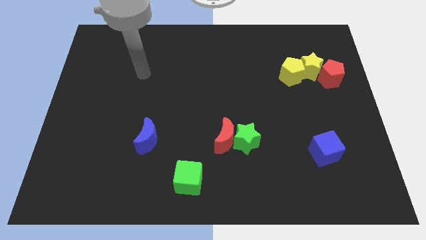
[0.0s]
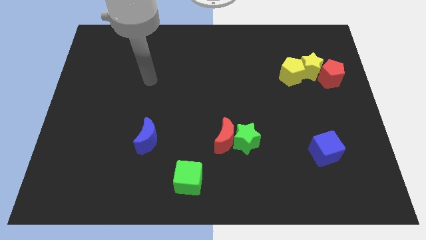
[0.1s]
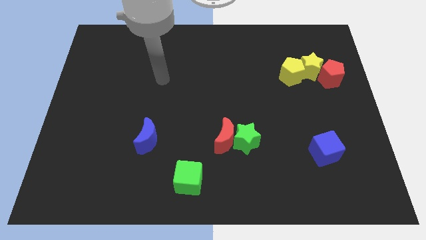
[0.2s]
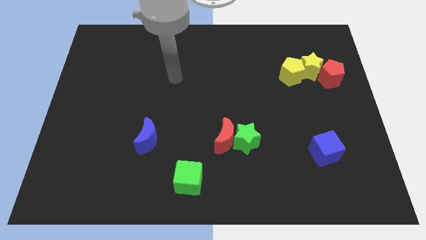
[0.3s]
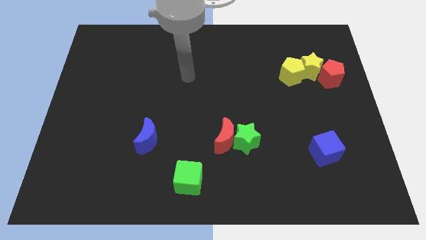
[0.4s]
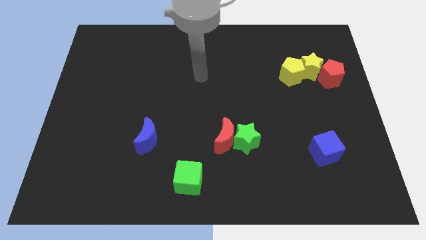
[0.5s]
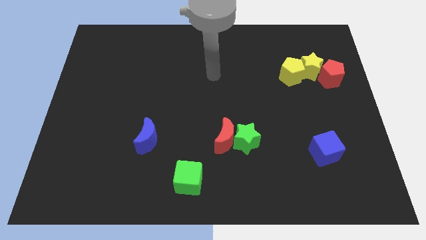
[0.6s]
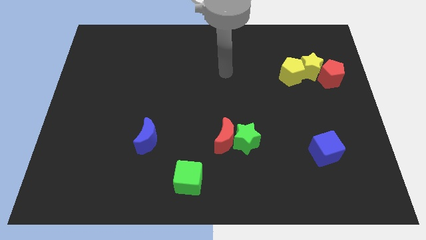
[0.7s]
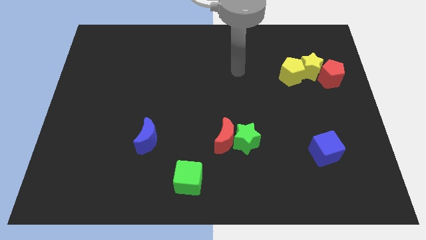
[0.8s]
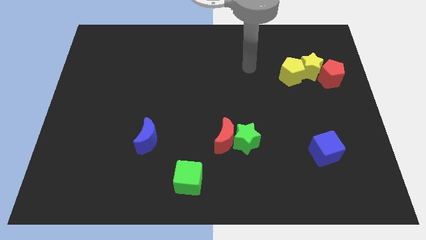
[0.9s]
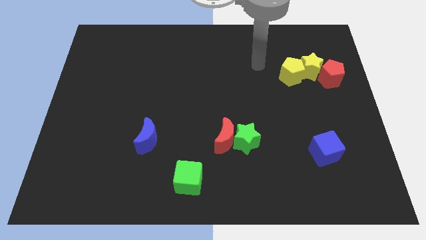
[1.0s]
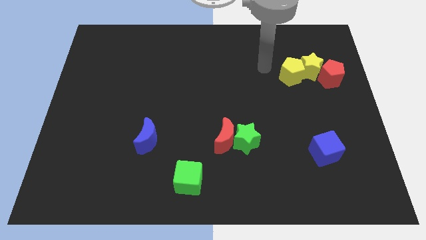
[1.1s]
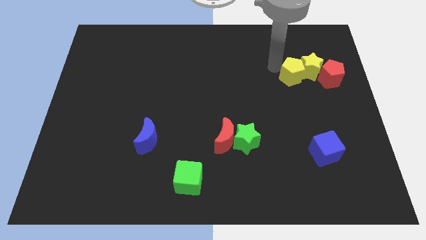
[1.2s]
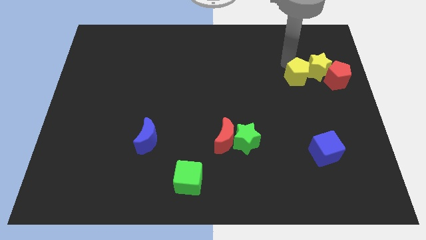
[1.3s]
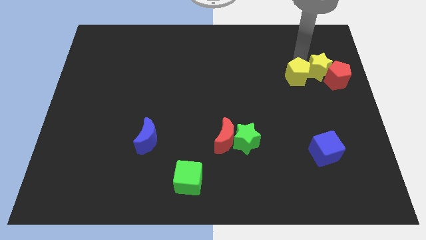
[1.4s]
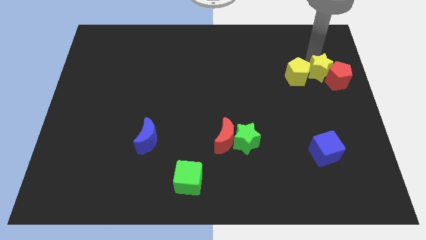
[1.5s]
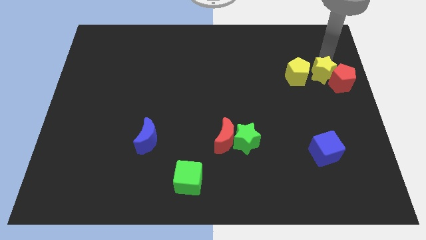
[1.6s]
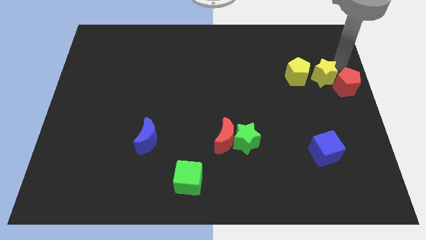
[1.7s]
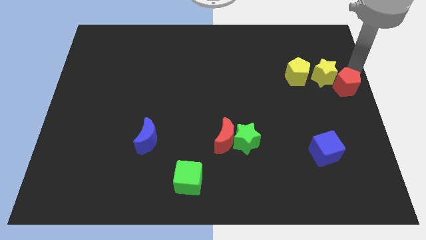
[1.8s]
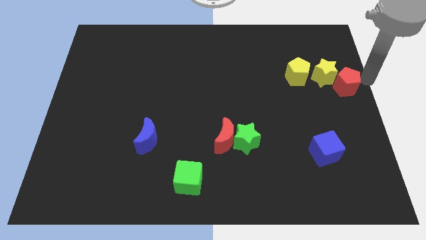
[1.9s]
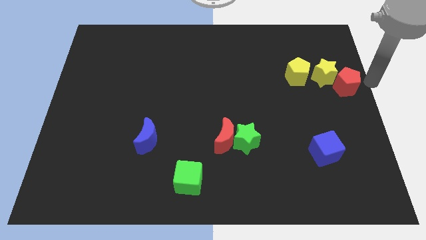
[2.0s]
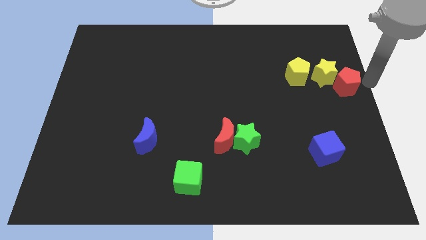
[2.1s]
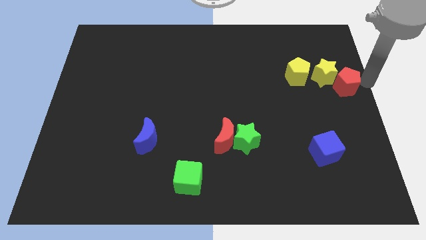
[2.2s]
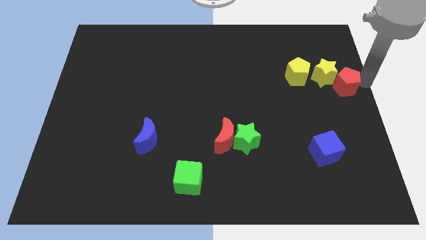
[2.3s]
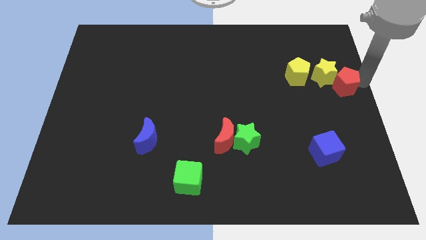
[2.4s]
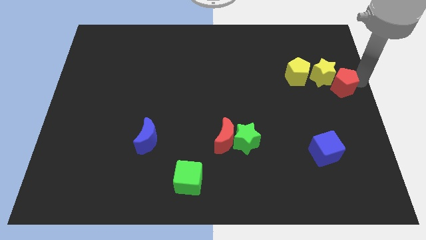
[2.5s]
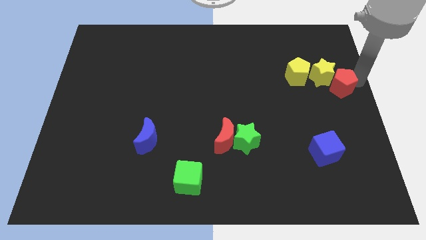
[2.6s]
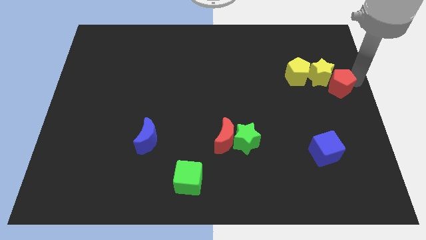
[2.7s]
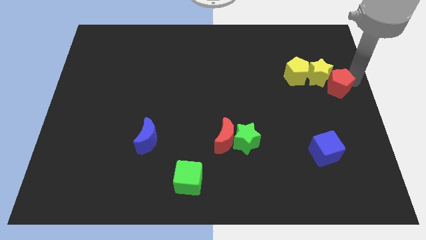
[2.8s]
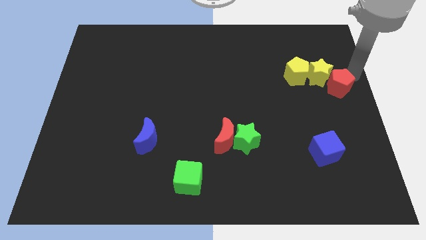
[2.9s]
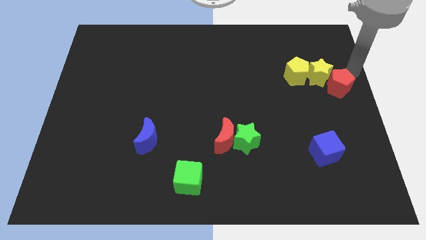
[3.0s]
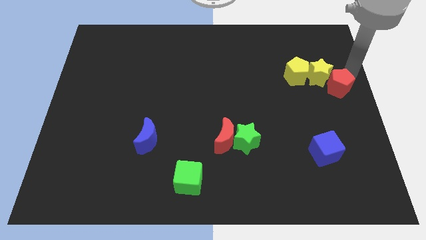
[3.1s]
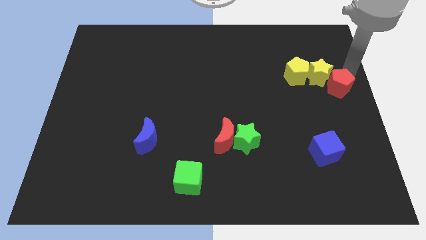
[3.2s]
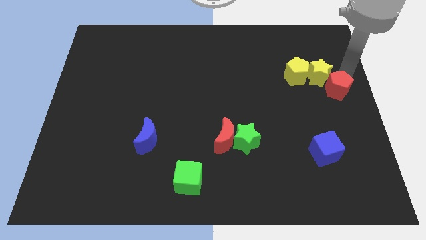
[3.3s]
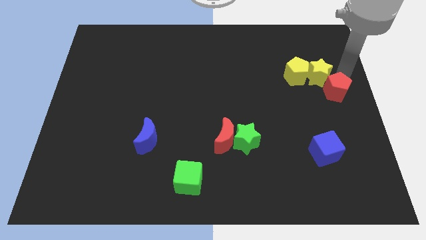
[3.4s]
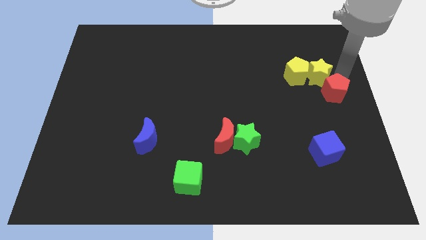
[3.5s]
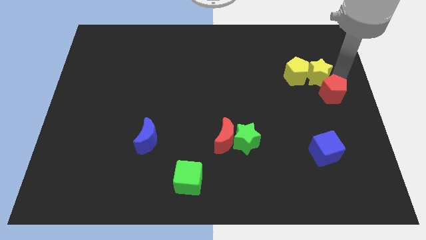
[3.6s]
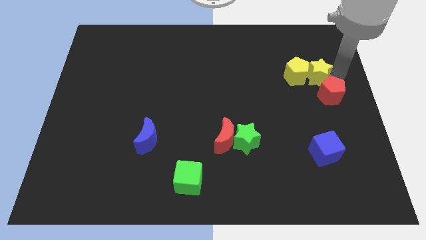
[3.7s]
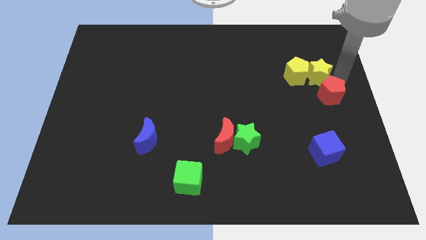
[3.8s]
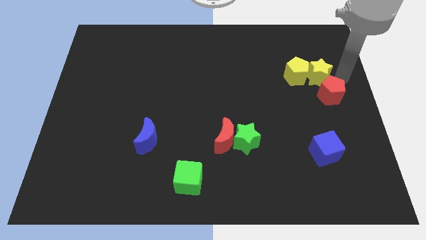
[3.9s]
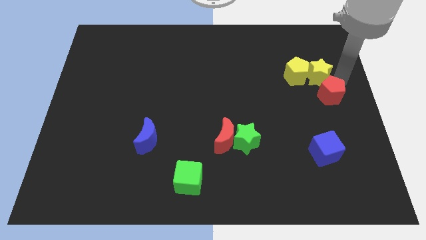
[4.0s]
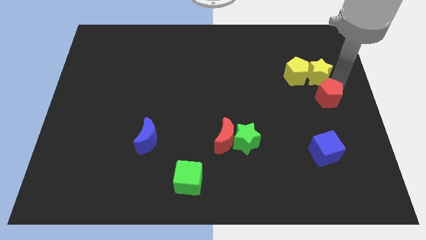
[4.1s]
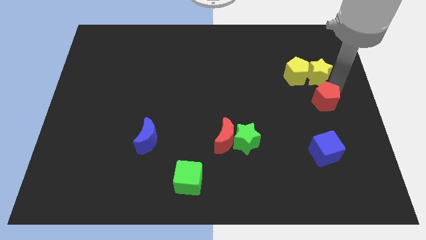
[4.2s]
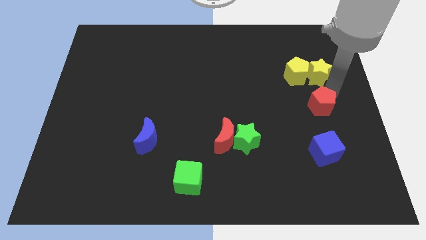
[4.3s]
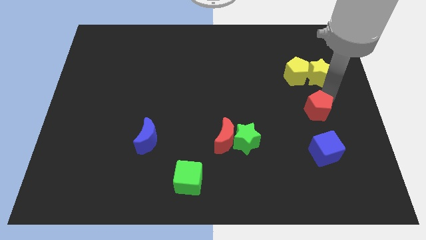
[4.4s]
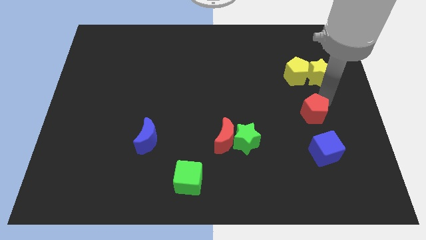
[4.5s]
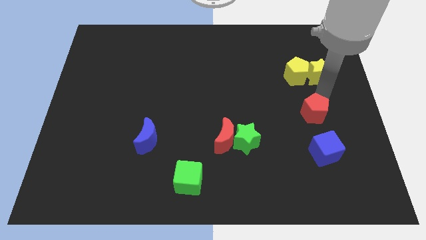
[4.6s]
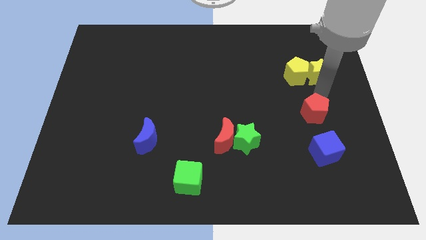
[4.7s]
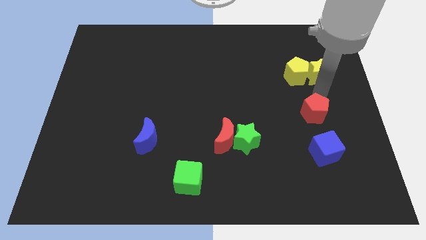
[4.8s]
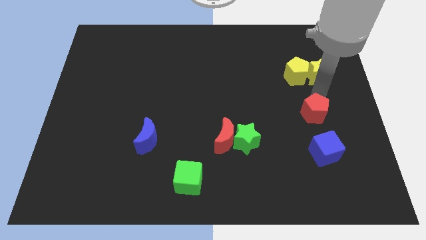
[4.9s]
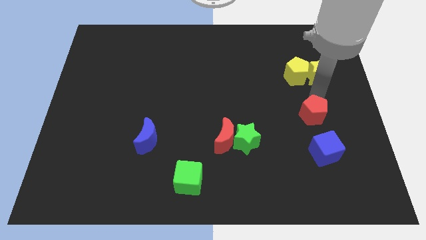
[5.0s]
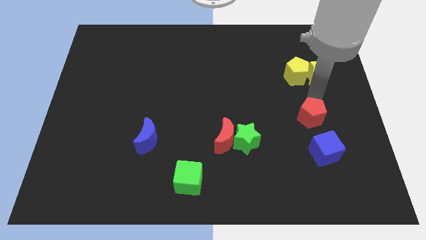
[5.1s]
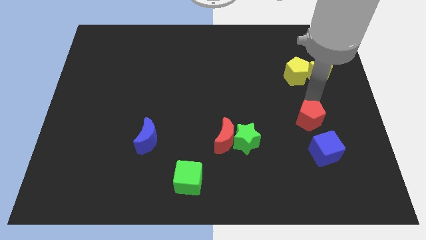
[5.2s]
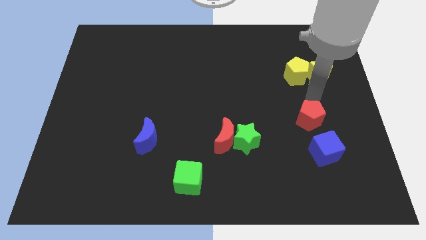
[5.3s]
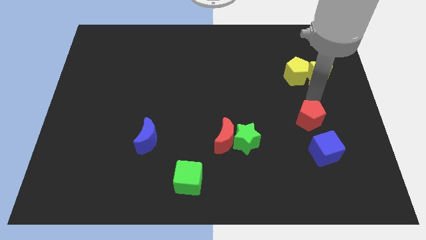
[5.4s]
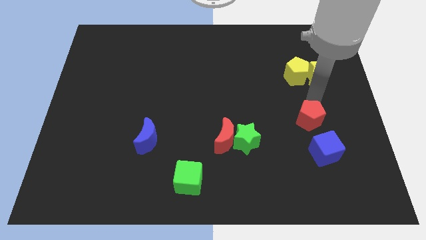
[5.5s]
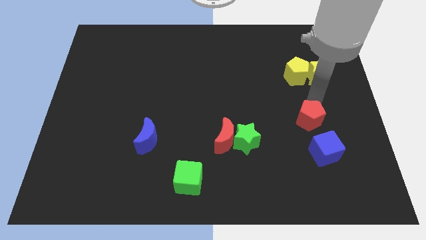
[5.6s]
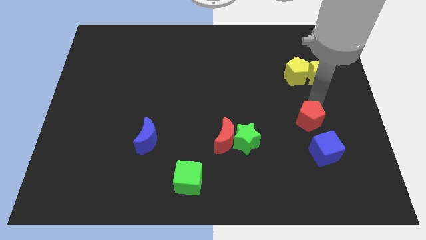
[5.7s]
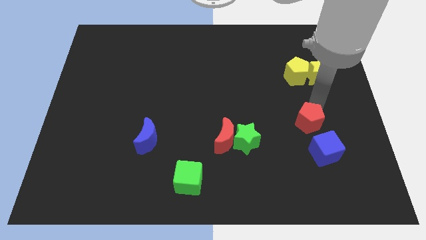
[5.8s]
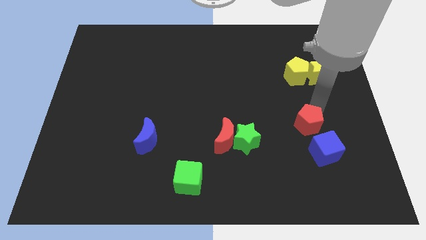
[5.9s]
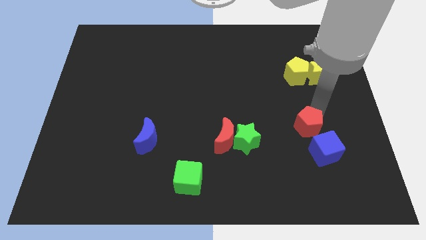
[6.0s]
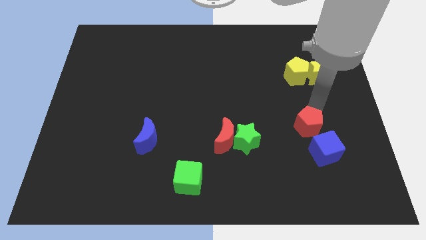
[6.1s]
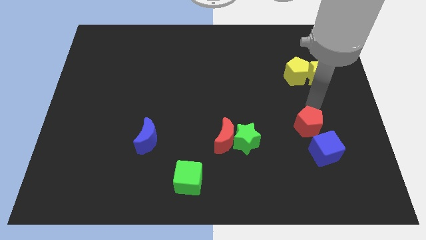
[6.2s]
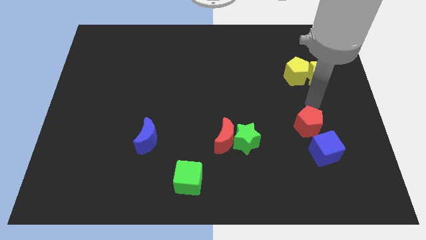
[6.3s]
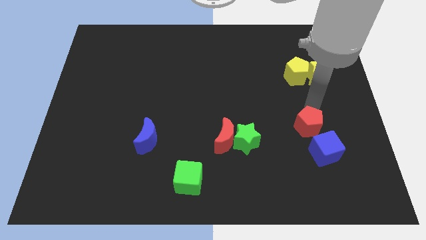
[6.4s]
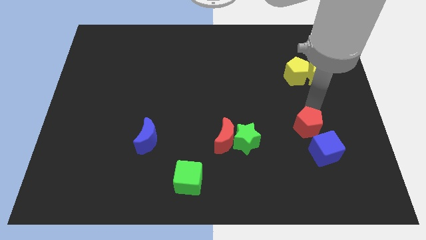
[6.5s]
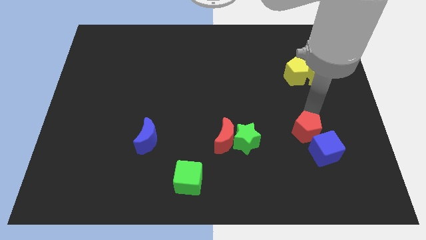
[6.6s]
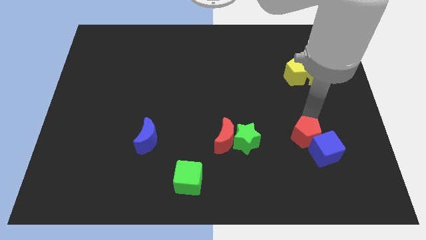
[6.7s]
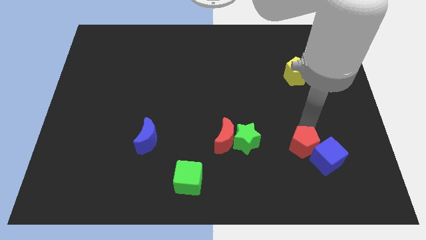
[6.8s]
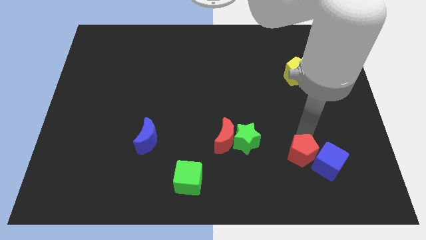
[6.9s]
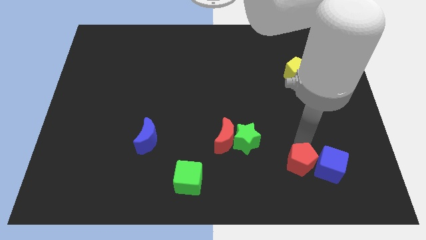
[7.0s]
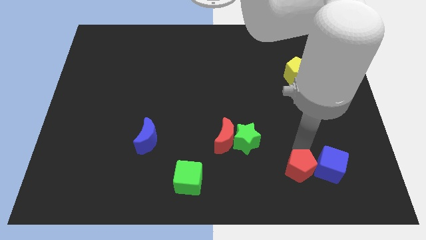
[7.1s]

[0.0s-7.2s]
slide the red pentagon to the bottom left side of the blue cube

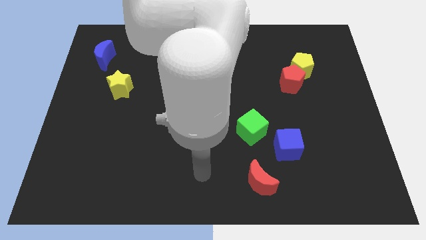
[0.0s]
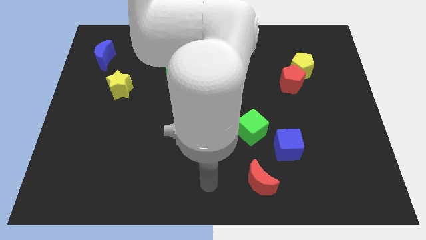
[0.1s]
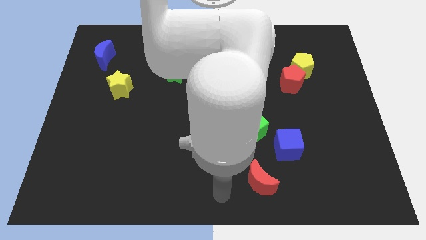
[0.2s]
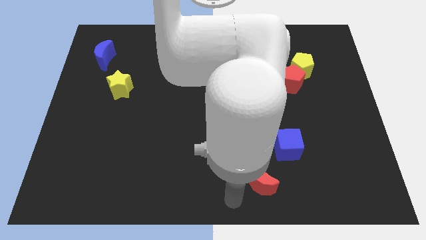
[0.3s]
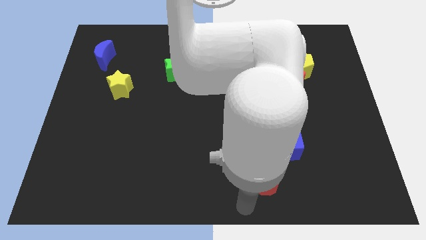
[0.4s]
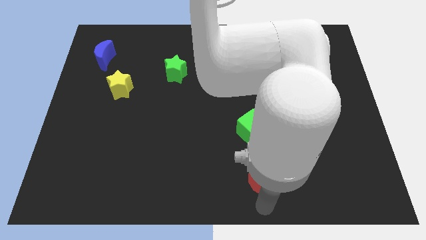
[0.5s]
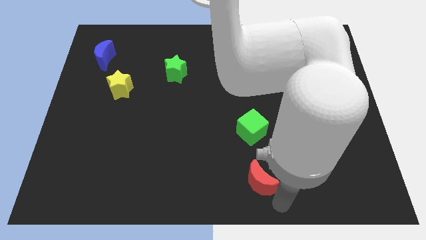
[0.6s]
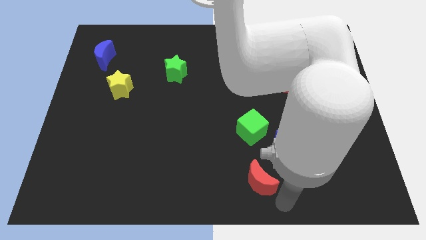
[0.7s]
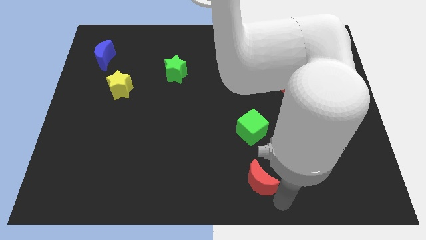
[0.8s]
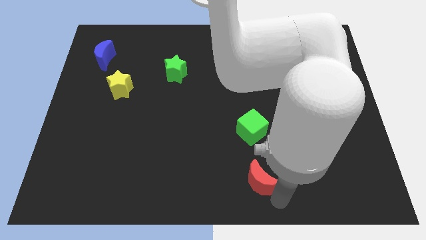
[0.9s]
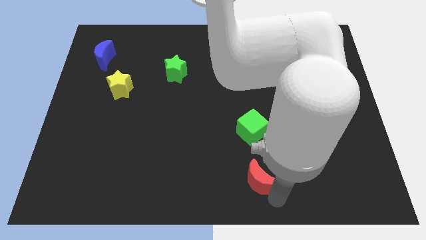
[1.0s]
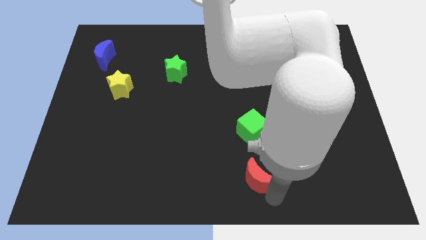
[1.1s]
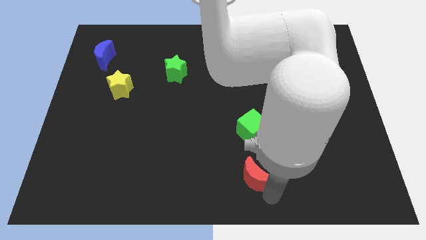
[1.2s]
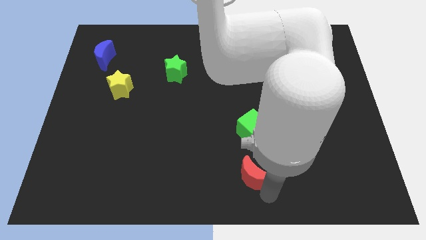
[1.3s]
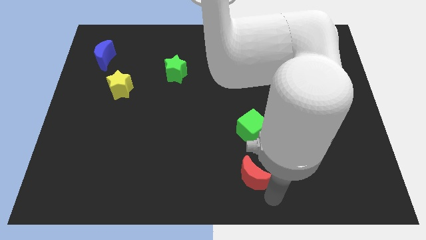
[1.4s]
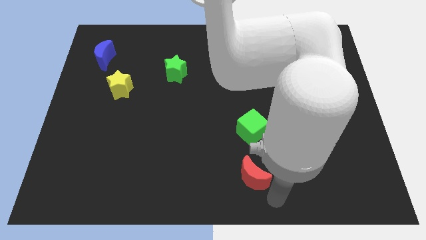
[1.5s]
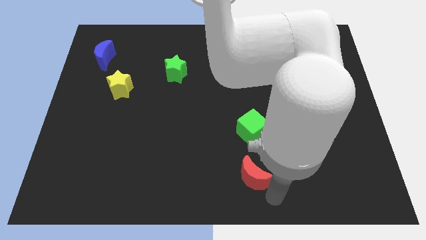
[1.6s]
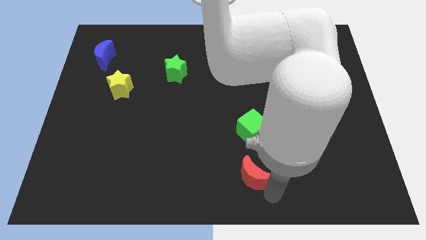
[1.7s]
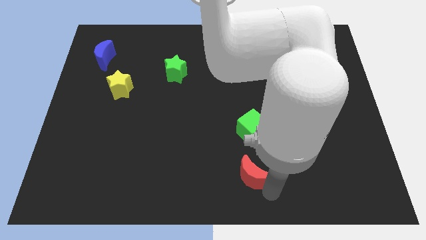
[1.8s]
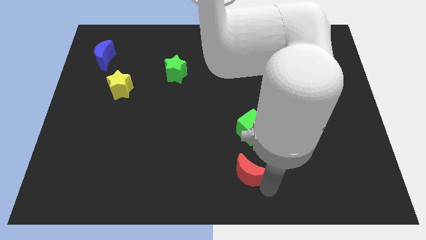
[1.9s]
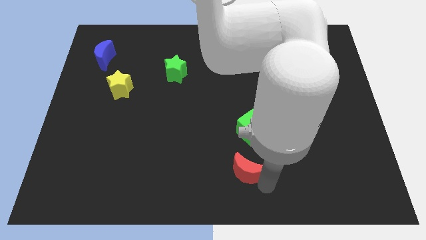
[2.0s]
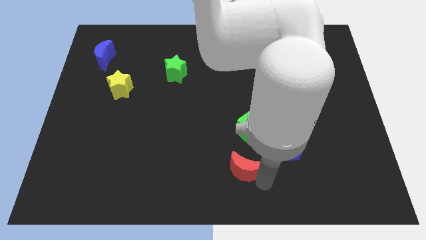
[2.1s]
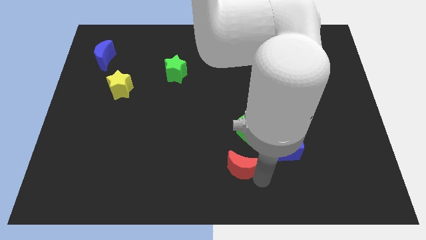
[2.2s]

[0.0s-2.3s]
put the red moon diagonally down and to the left of the green cube
